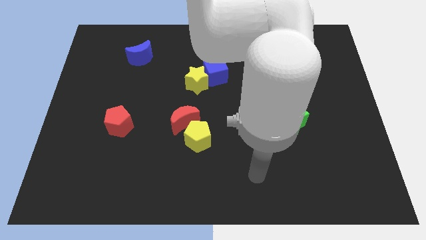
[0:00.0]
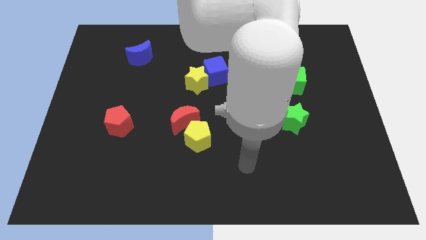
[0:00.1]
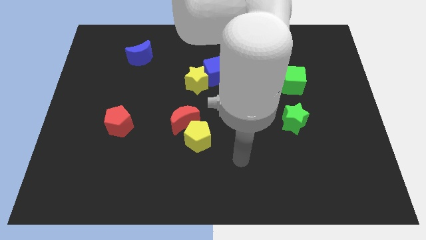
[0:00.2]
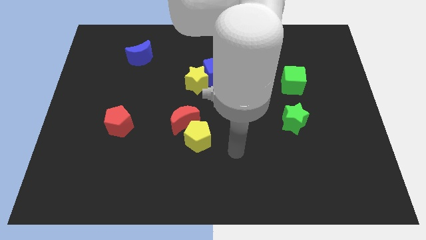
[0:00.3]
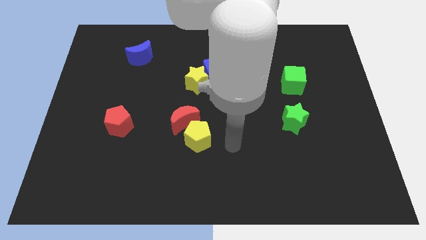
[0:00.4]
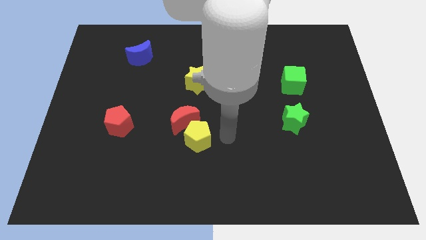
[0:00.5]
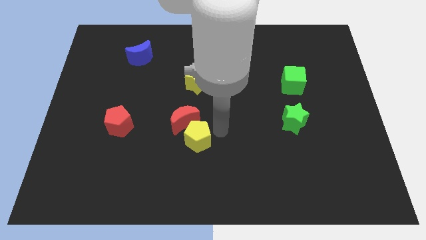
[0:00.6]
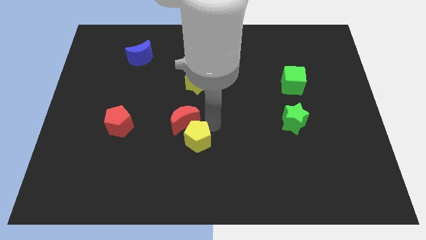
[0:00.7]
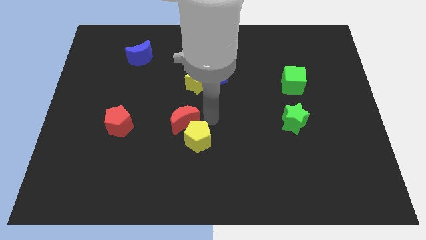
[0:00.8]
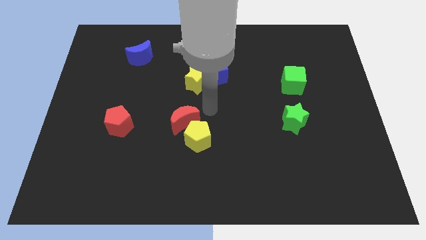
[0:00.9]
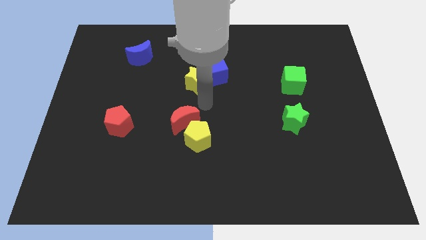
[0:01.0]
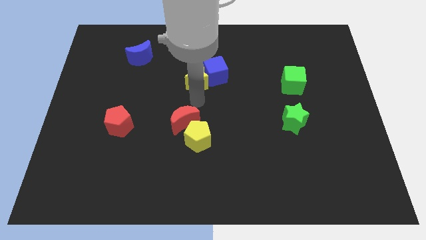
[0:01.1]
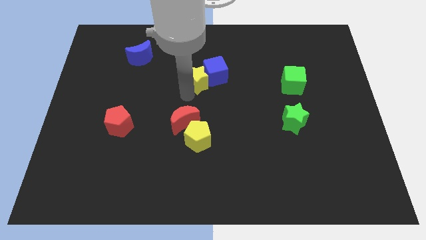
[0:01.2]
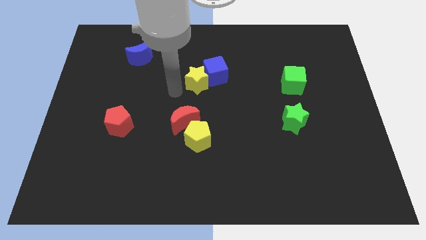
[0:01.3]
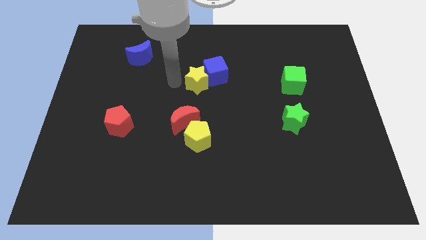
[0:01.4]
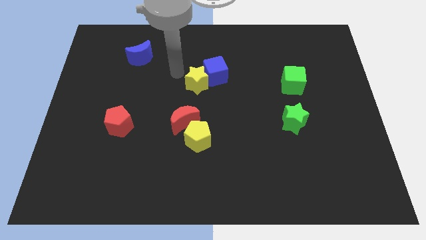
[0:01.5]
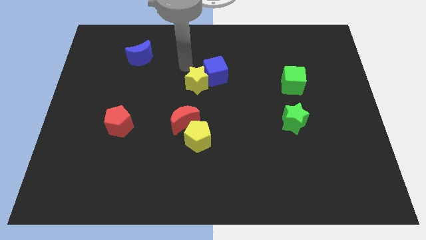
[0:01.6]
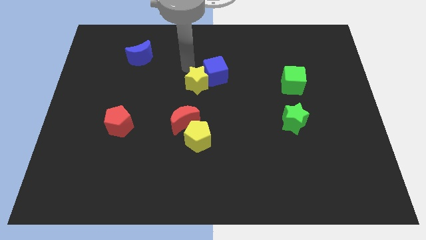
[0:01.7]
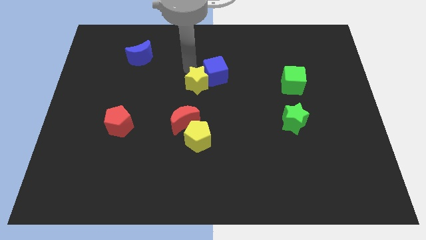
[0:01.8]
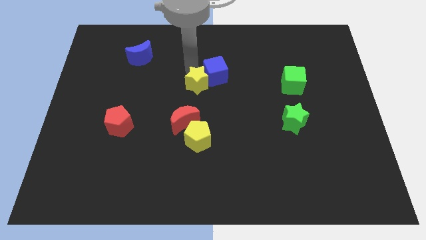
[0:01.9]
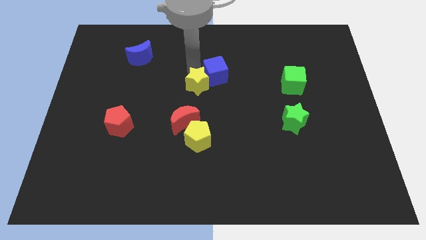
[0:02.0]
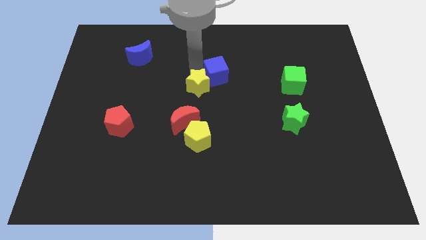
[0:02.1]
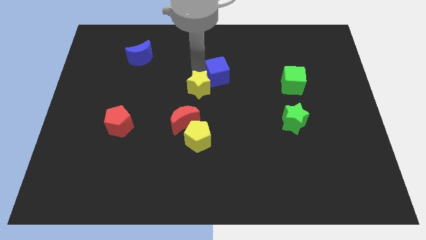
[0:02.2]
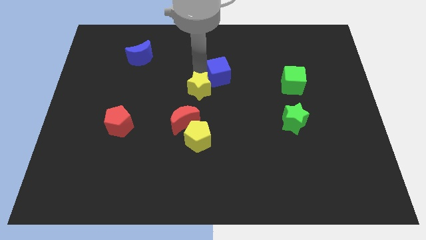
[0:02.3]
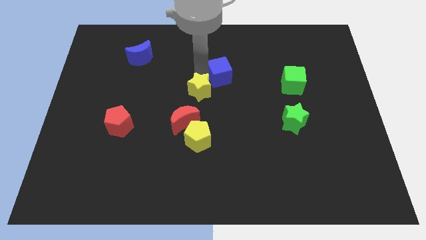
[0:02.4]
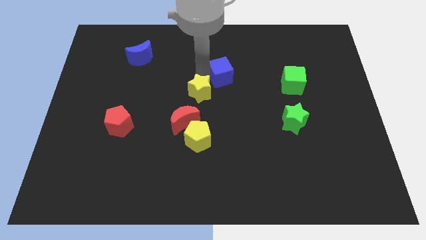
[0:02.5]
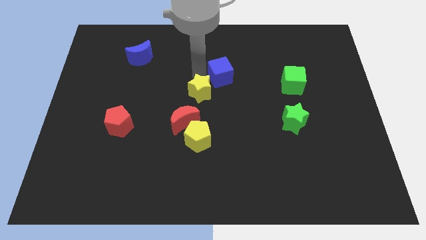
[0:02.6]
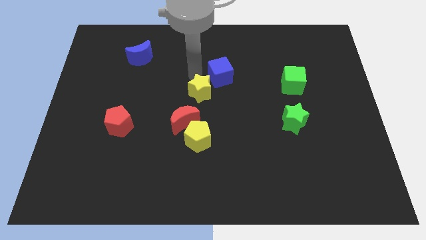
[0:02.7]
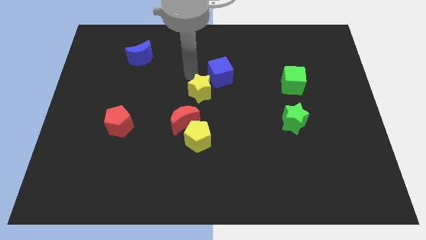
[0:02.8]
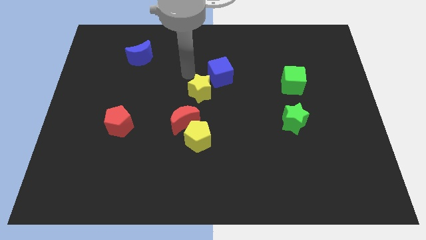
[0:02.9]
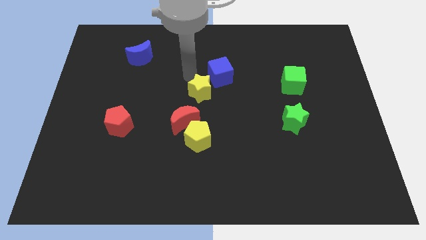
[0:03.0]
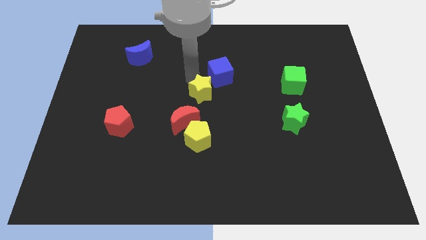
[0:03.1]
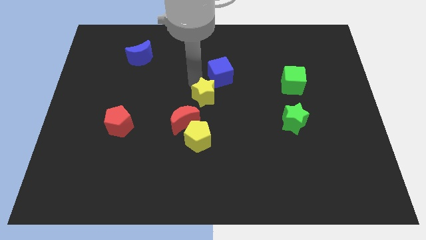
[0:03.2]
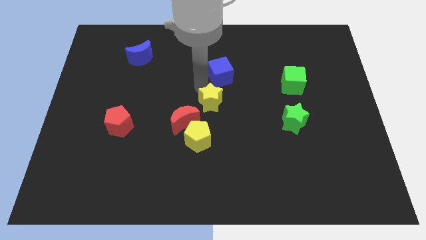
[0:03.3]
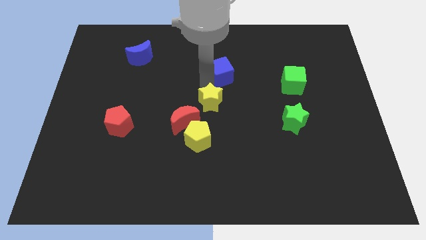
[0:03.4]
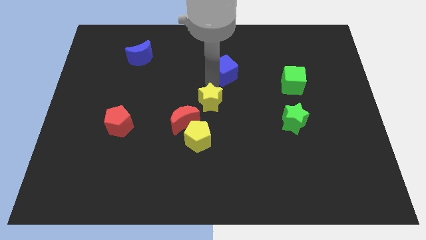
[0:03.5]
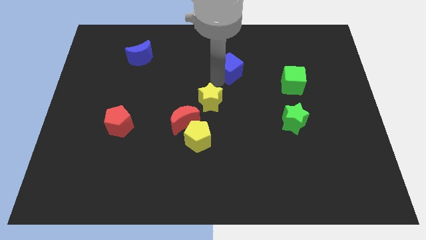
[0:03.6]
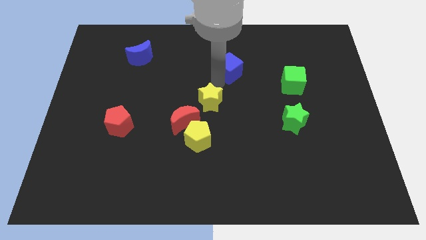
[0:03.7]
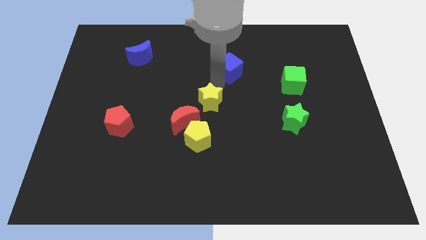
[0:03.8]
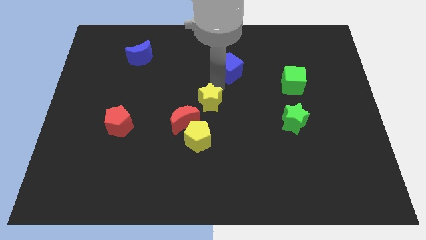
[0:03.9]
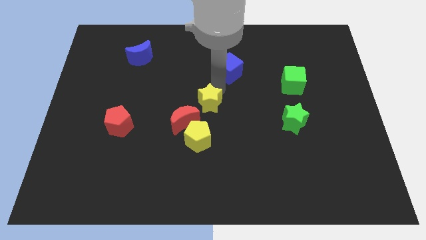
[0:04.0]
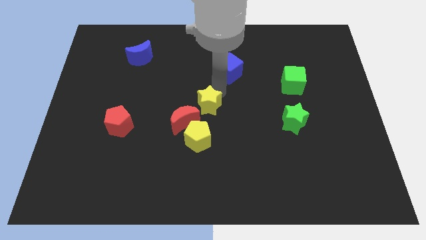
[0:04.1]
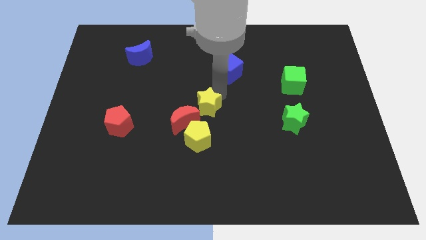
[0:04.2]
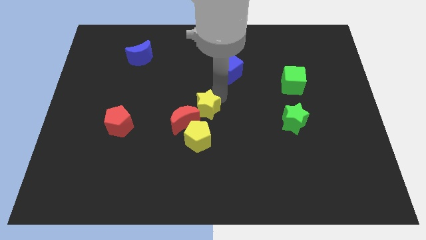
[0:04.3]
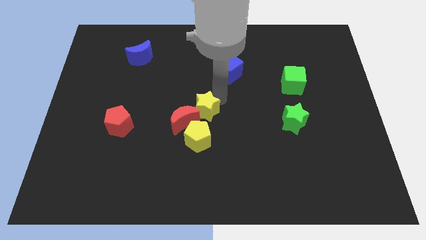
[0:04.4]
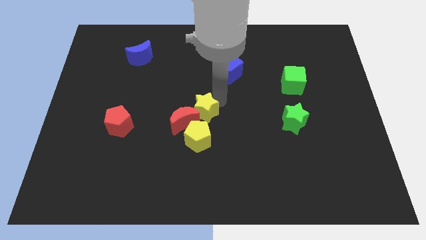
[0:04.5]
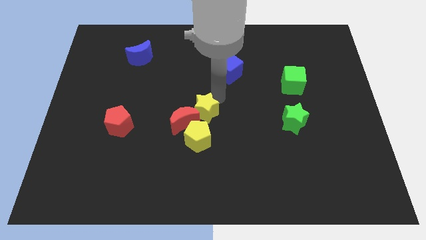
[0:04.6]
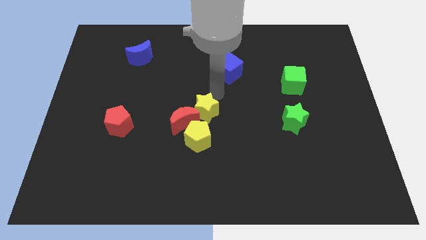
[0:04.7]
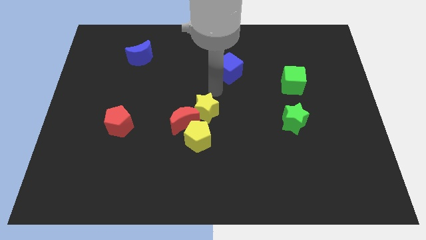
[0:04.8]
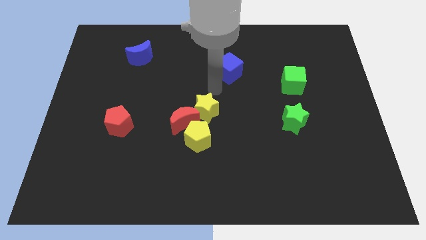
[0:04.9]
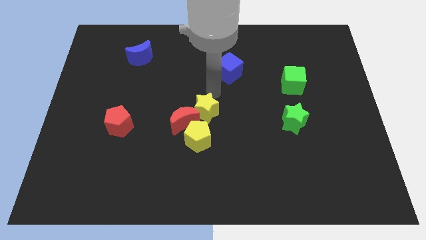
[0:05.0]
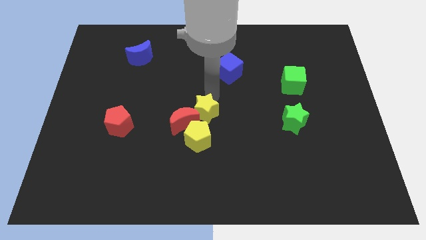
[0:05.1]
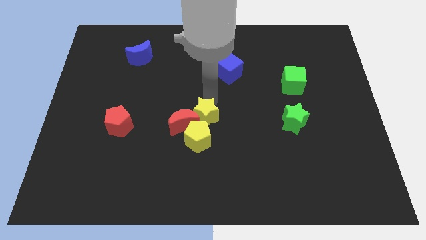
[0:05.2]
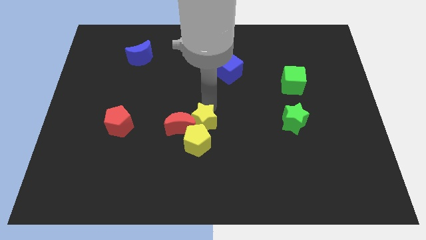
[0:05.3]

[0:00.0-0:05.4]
put the yellow star close to the yellow pentagon

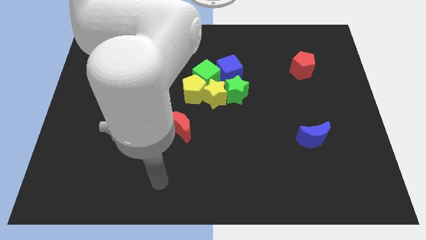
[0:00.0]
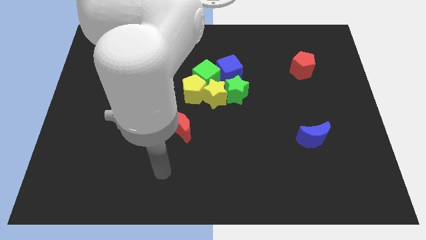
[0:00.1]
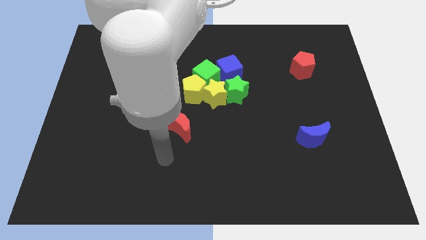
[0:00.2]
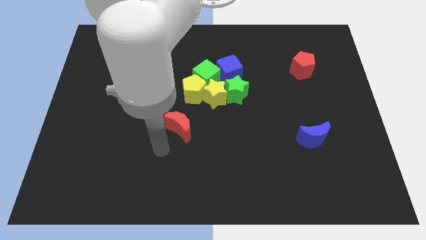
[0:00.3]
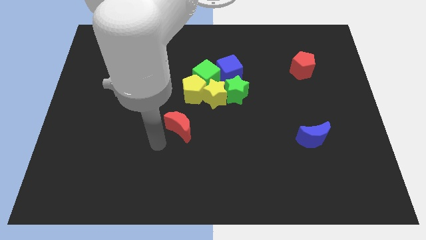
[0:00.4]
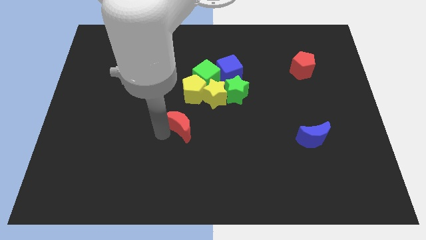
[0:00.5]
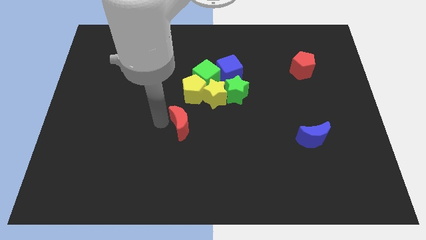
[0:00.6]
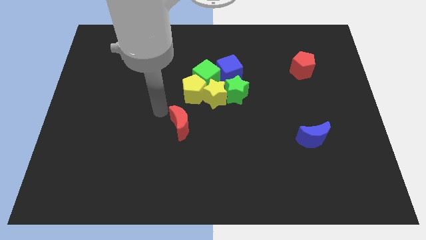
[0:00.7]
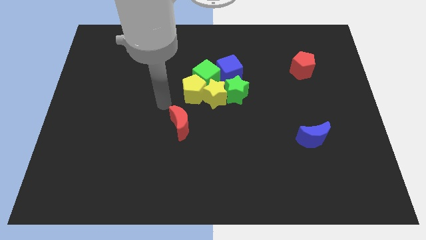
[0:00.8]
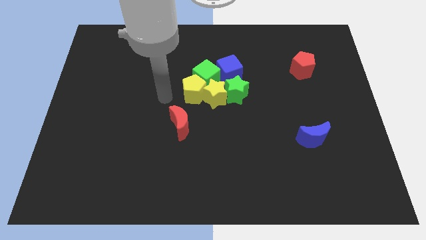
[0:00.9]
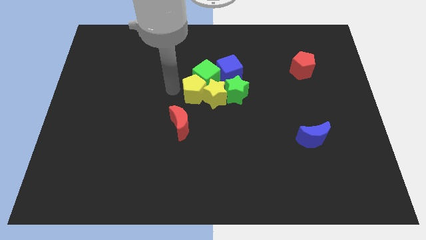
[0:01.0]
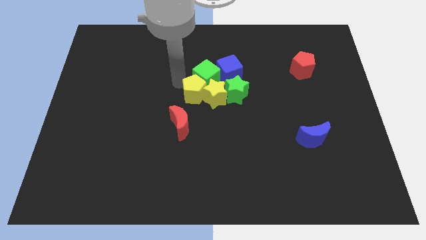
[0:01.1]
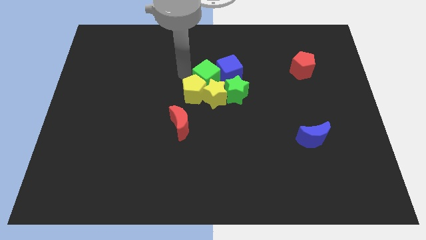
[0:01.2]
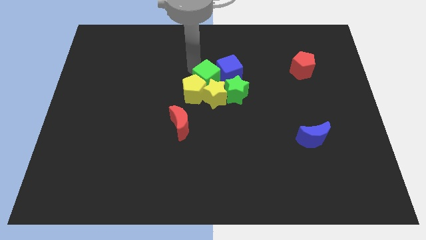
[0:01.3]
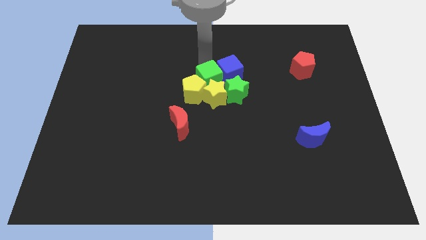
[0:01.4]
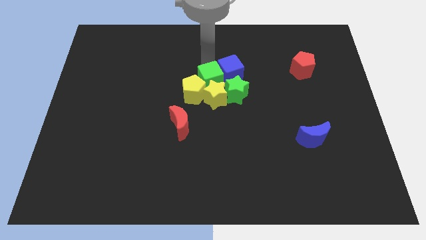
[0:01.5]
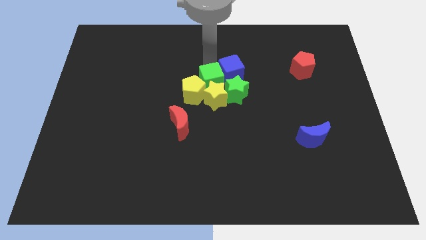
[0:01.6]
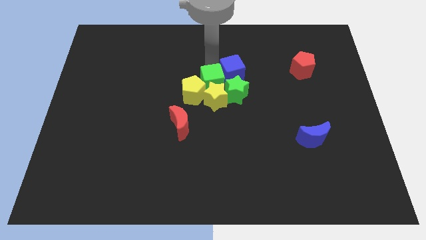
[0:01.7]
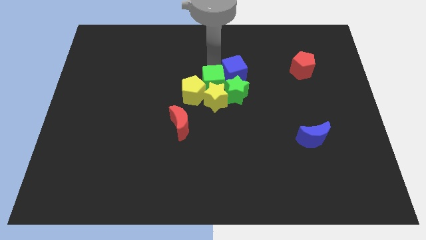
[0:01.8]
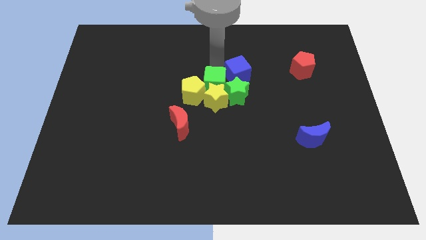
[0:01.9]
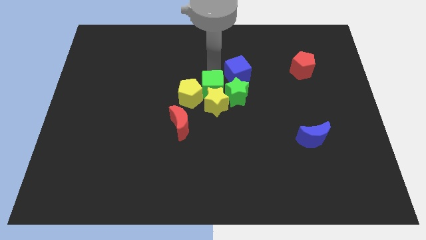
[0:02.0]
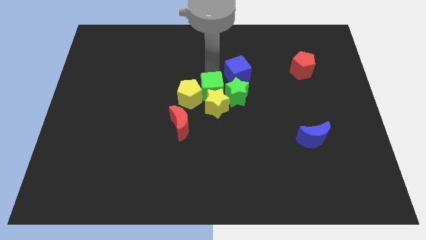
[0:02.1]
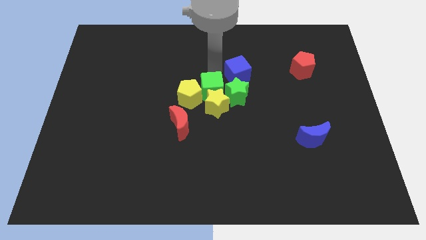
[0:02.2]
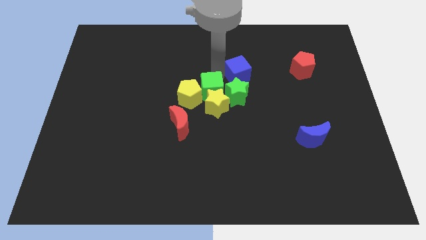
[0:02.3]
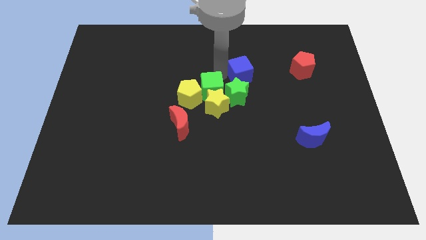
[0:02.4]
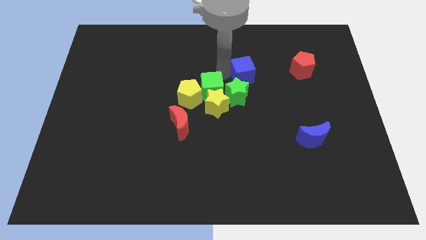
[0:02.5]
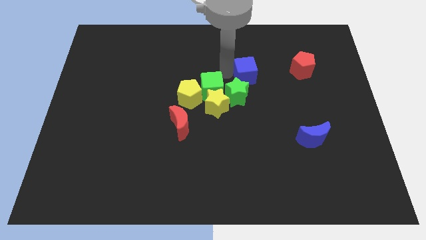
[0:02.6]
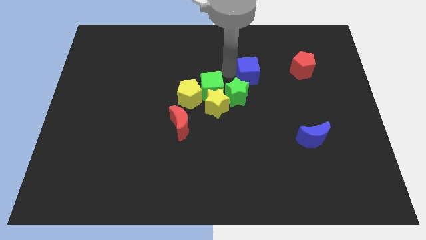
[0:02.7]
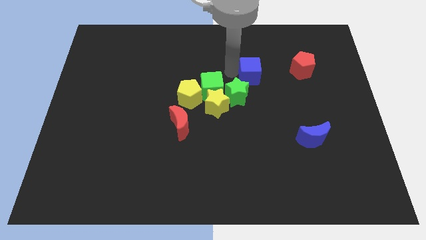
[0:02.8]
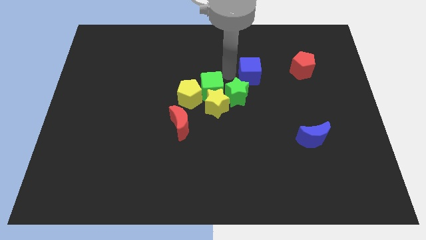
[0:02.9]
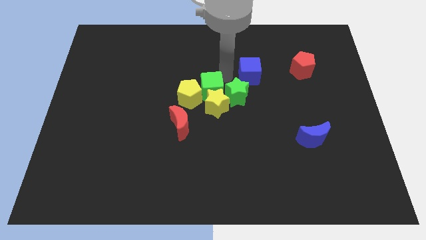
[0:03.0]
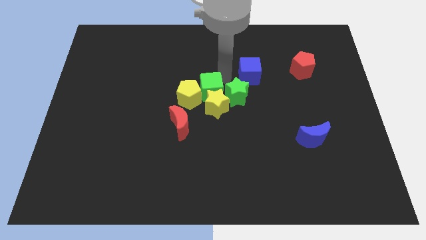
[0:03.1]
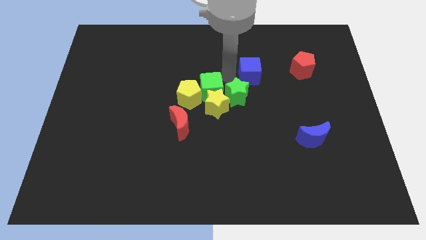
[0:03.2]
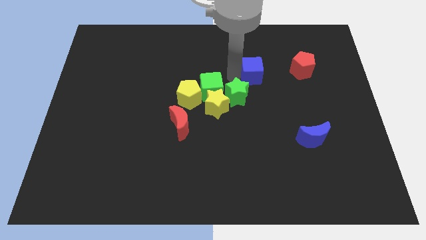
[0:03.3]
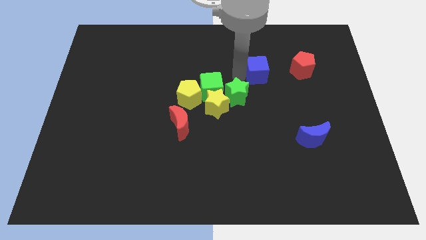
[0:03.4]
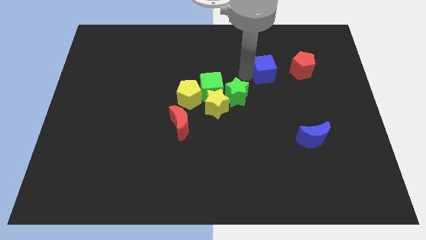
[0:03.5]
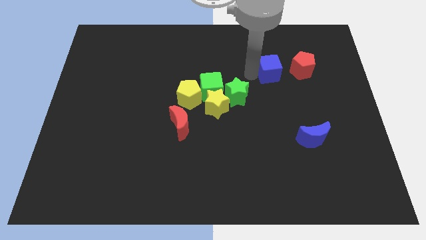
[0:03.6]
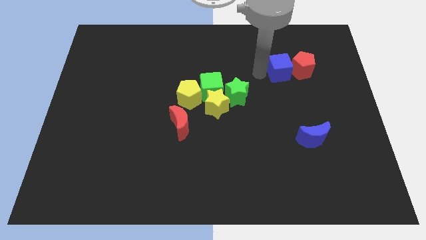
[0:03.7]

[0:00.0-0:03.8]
slide the blue cube close to the red pentagon
